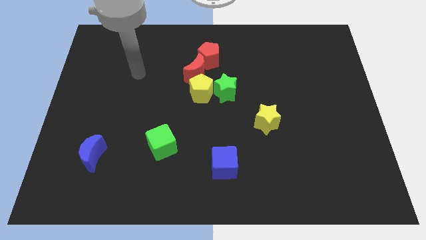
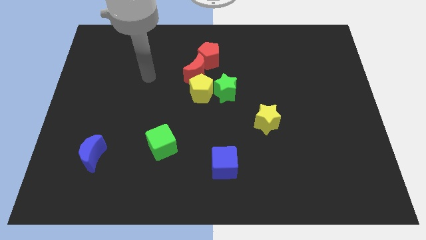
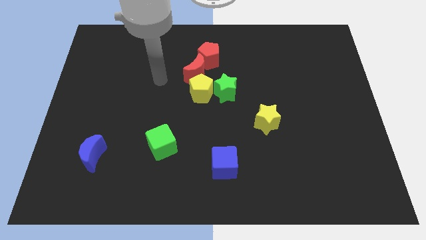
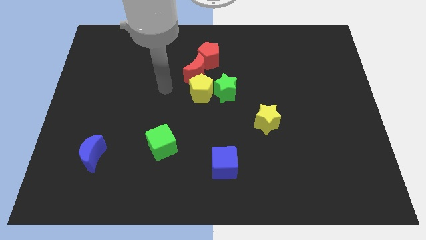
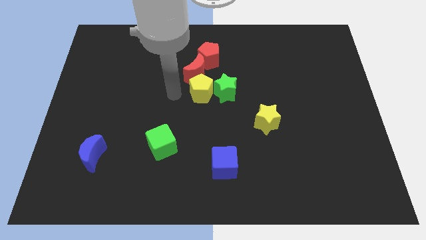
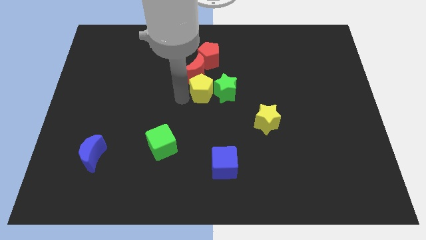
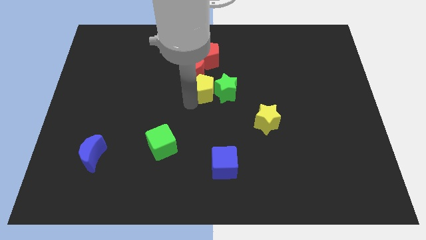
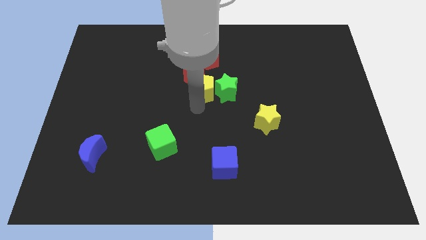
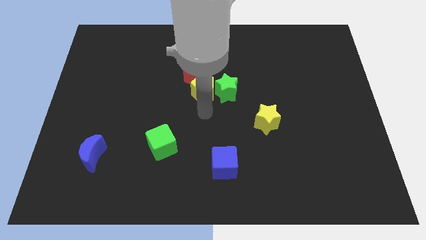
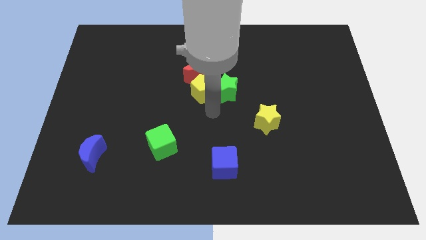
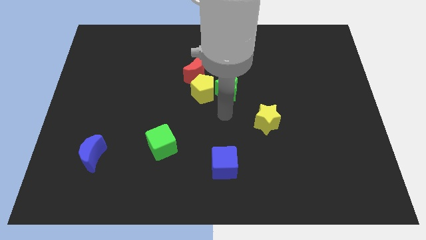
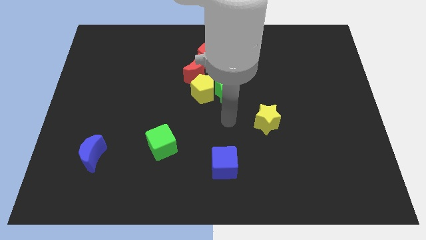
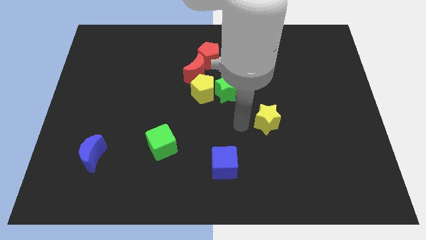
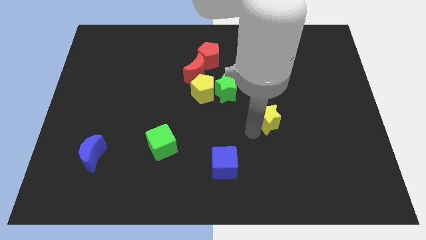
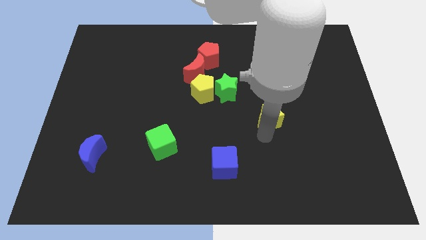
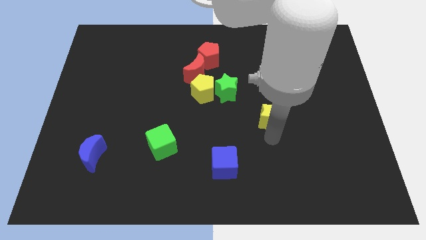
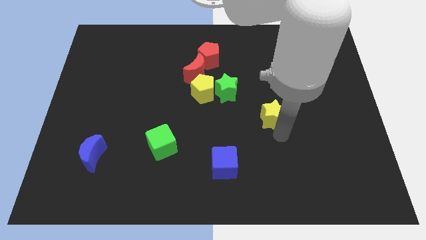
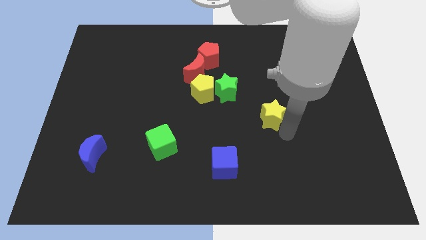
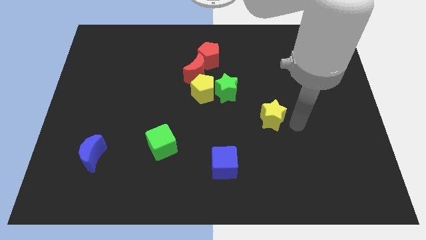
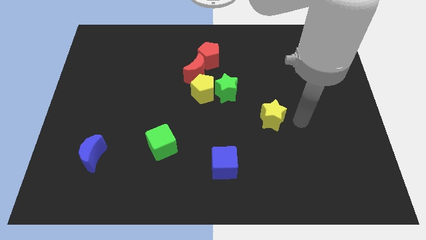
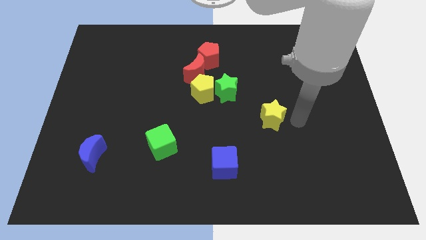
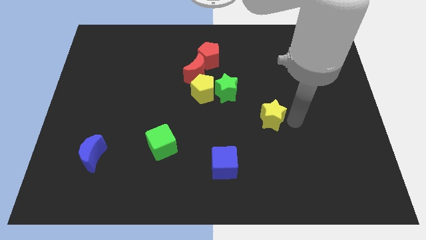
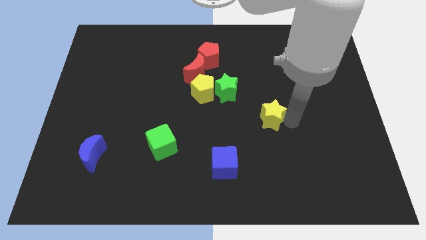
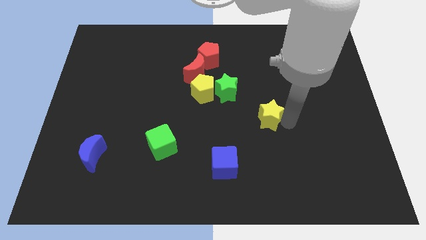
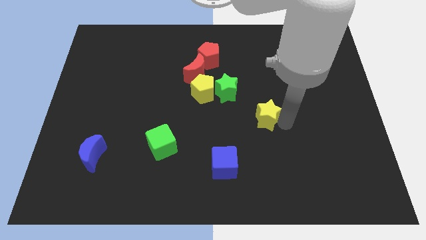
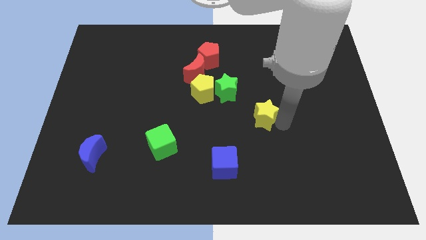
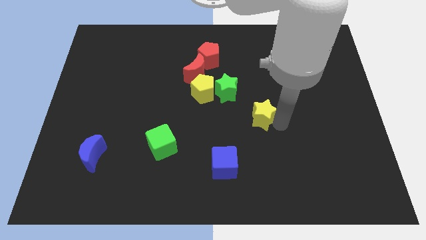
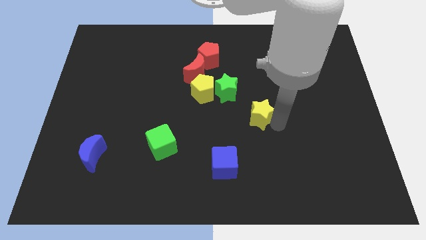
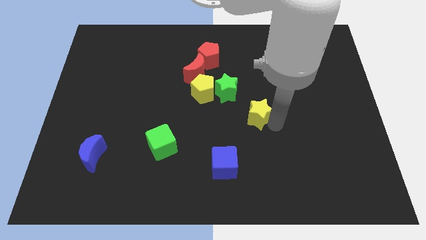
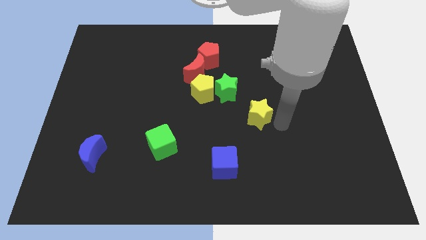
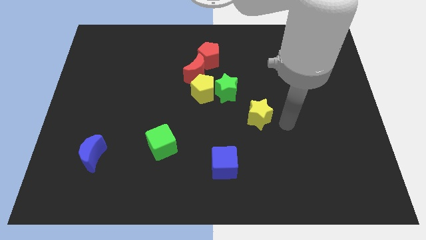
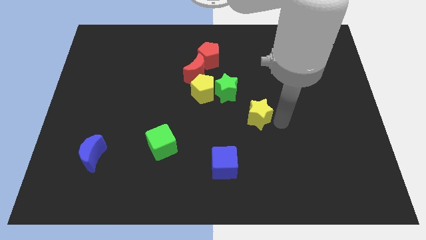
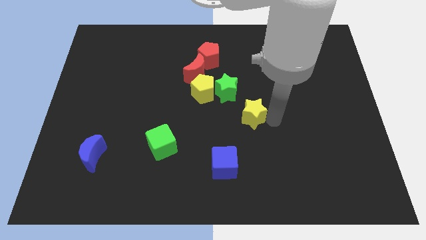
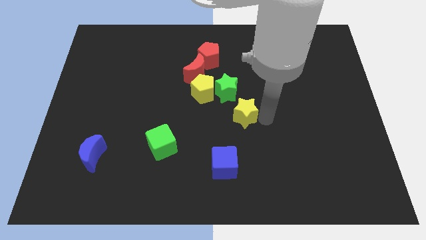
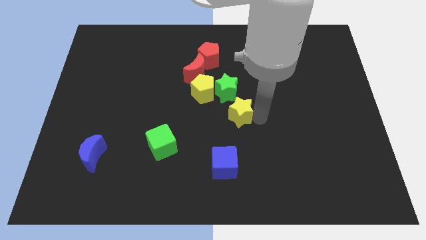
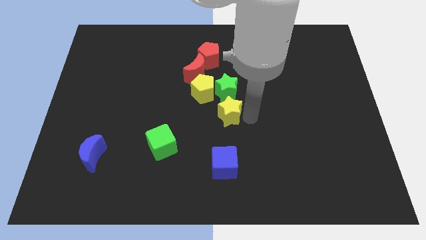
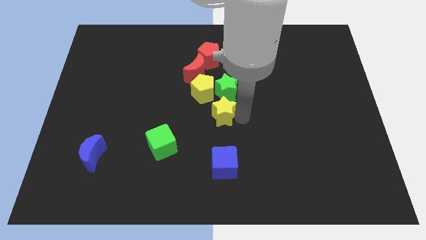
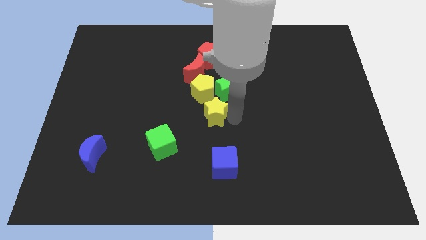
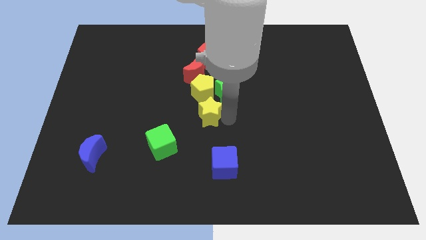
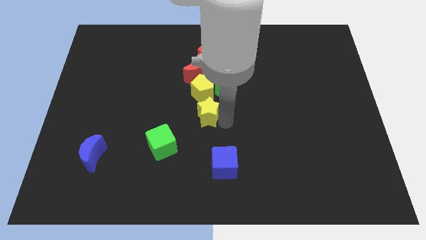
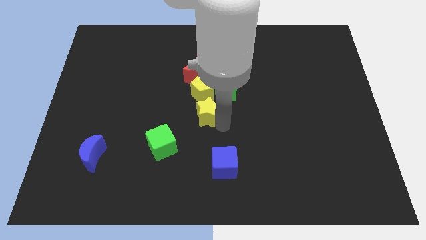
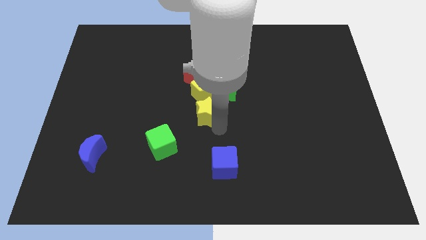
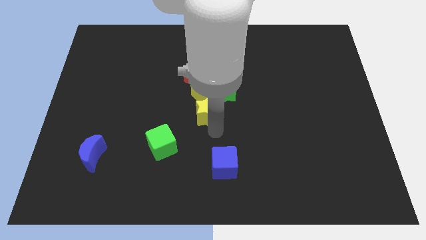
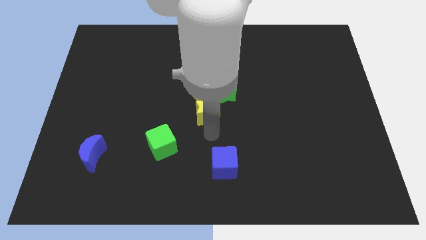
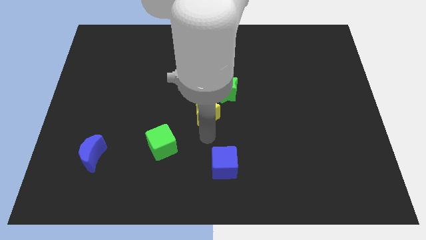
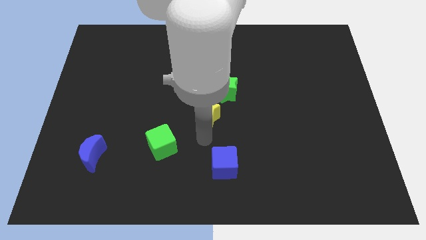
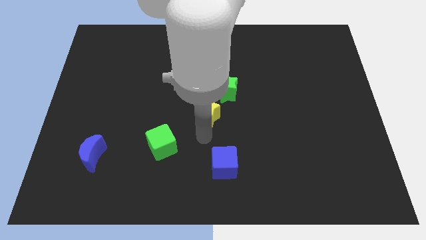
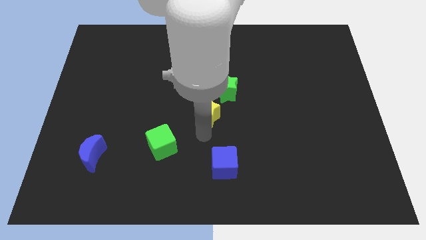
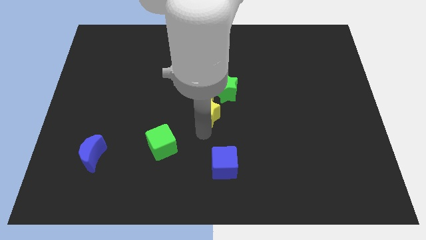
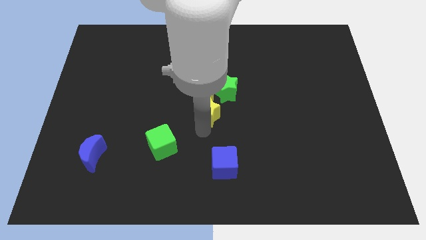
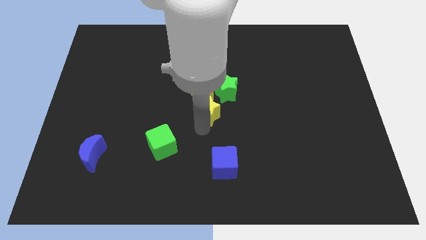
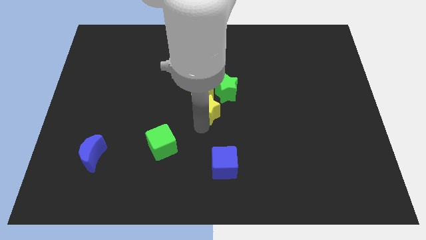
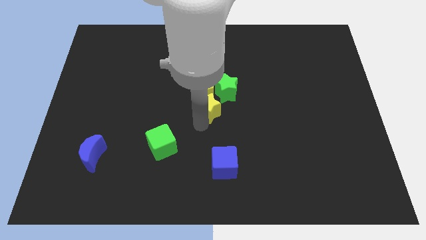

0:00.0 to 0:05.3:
push the yellow star towards the yellow pentagon

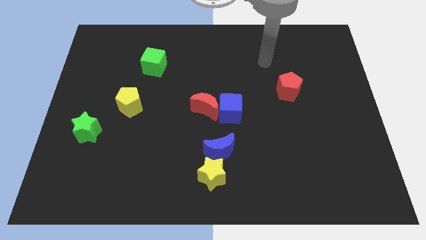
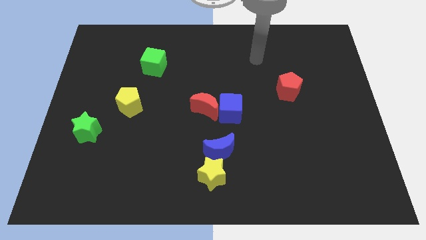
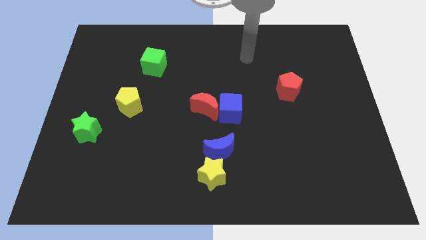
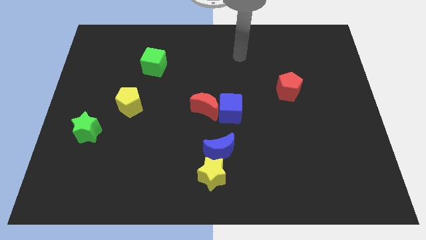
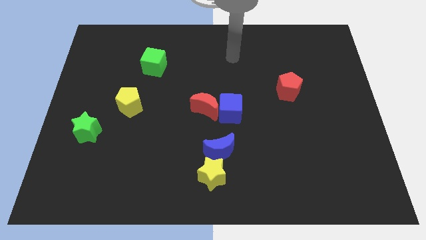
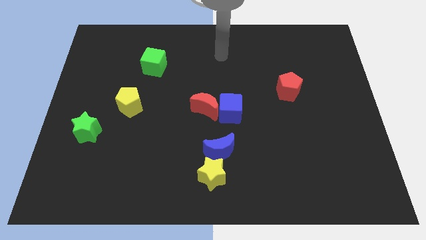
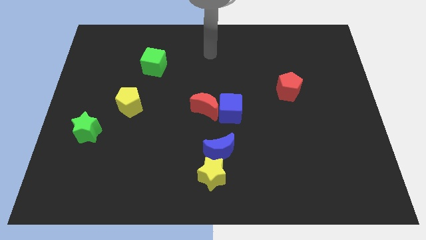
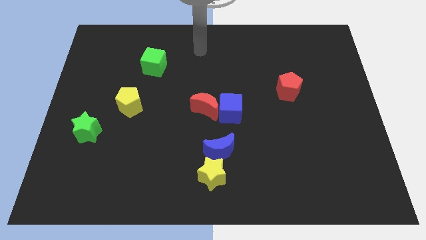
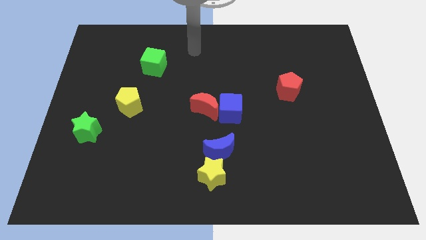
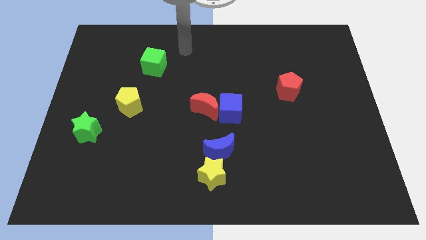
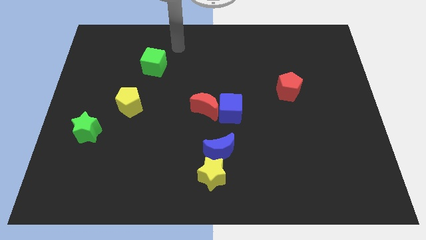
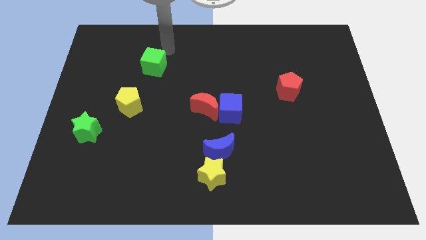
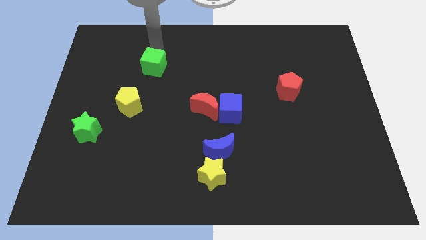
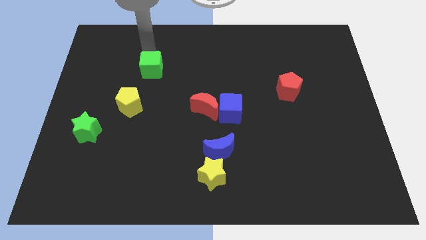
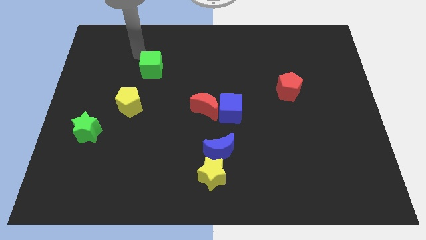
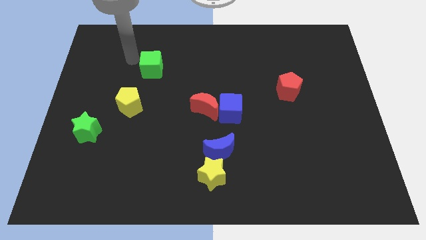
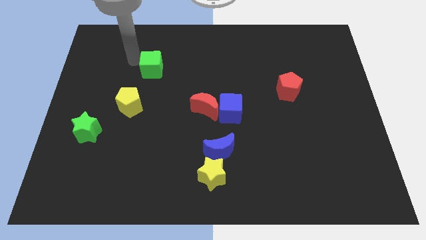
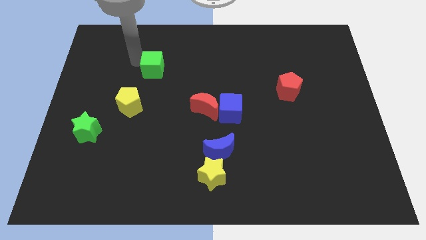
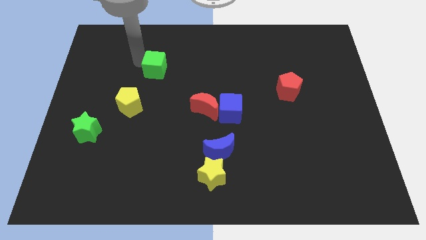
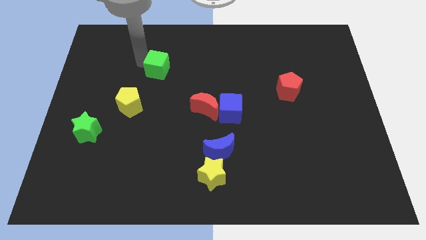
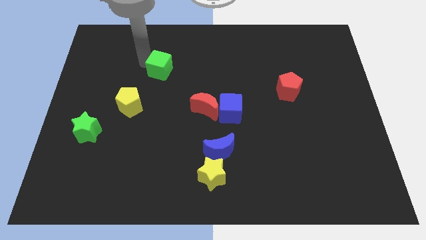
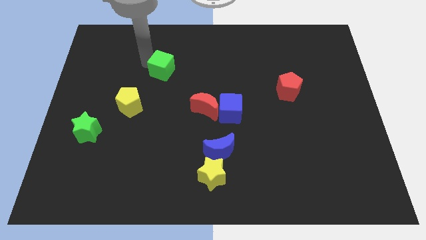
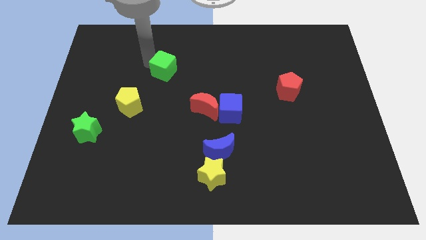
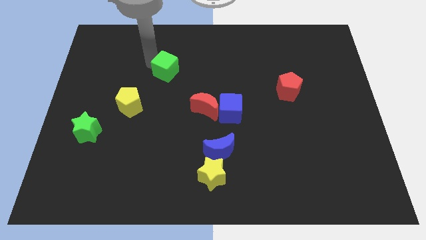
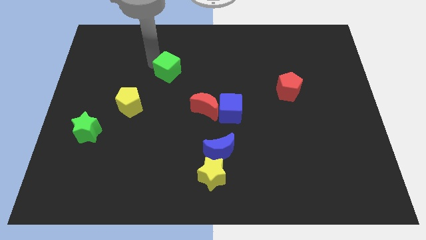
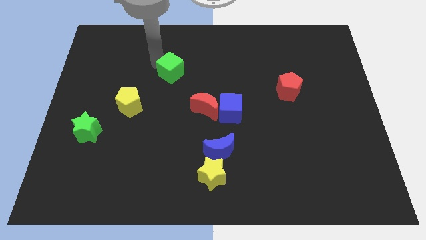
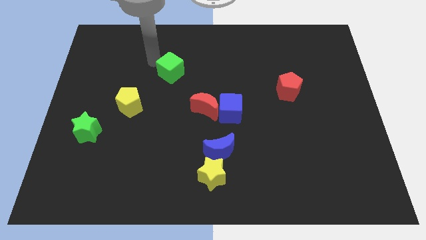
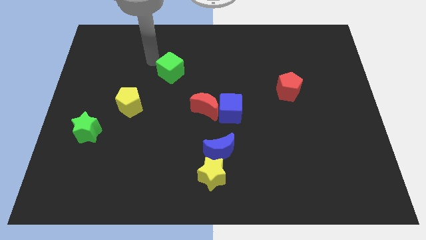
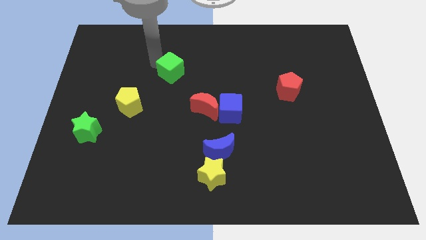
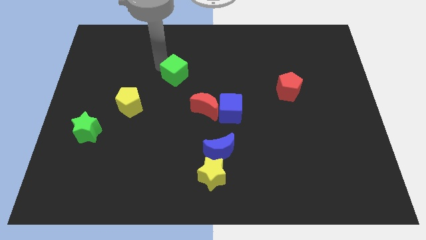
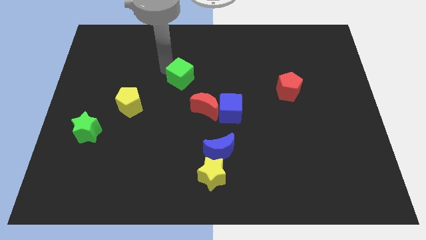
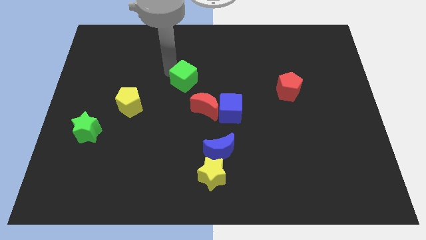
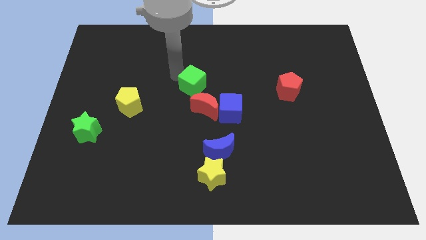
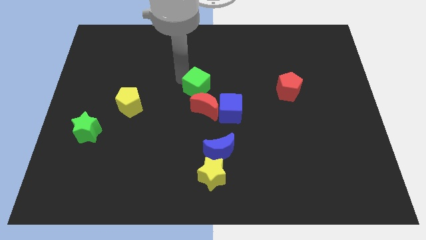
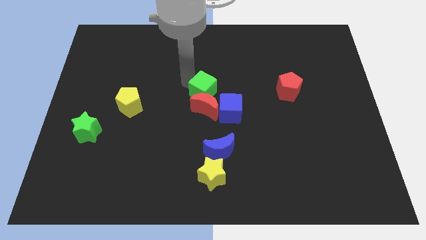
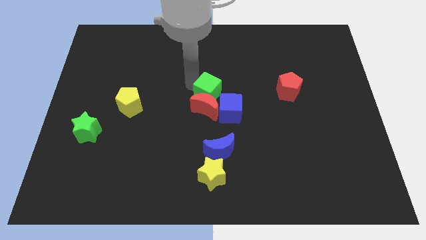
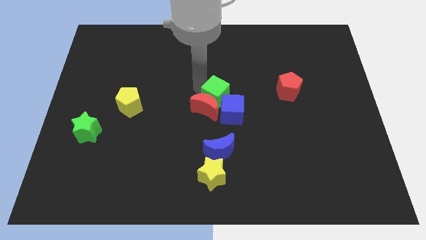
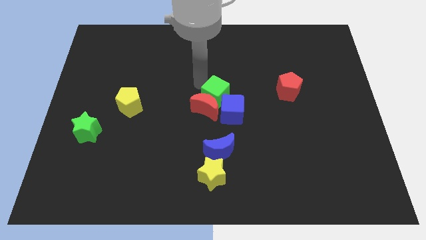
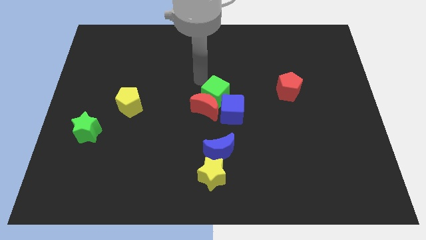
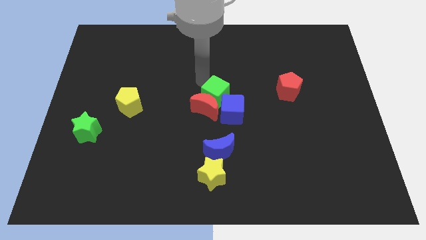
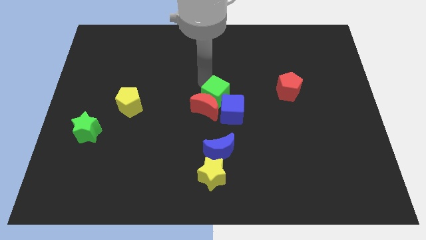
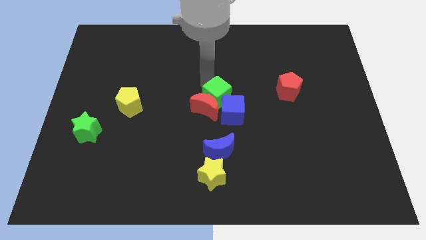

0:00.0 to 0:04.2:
move the green cube to the blue cube
